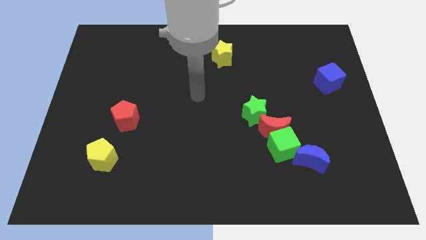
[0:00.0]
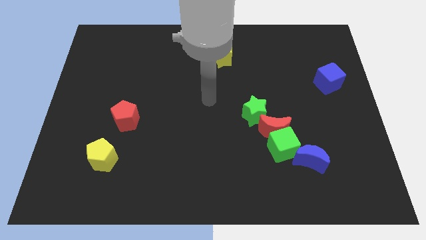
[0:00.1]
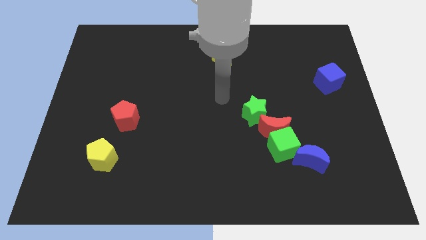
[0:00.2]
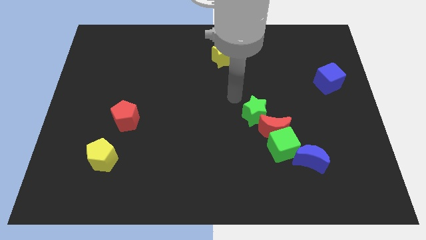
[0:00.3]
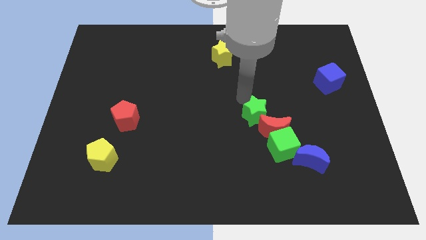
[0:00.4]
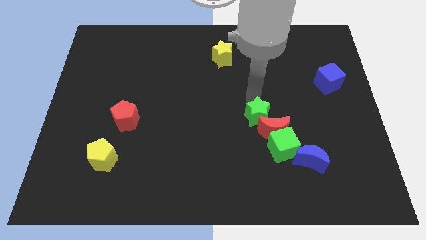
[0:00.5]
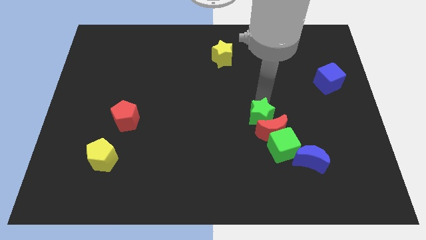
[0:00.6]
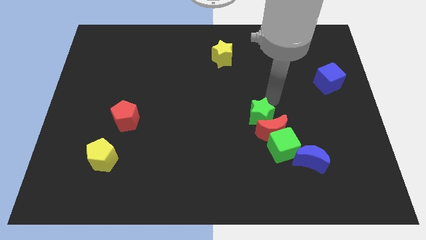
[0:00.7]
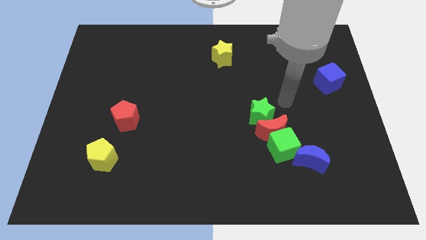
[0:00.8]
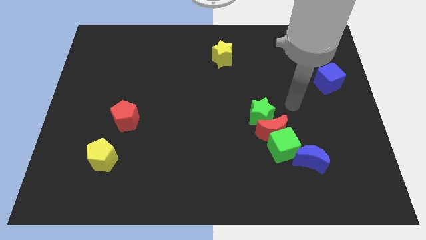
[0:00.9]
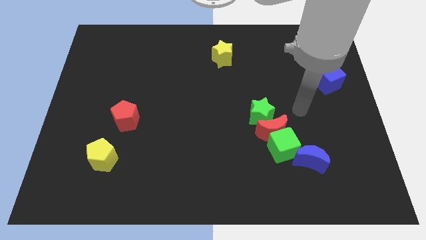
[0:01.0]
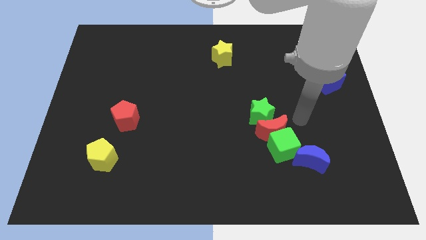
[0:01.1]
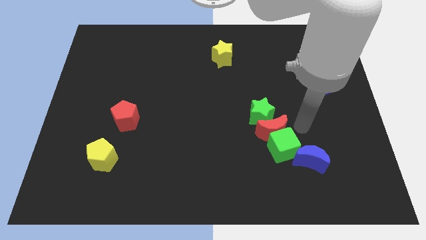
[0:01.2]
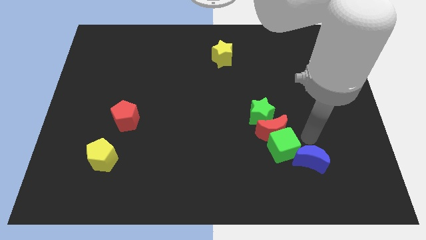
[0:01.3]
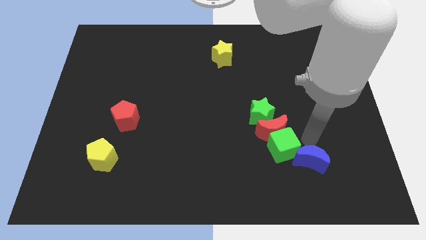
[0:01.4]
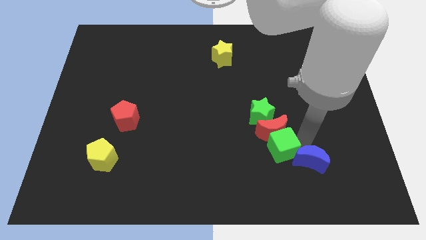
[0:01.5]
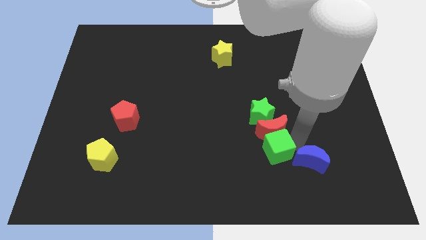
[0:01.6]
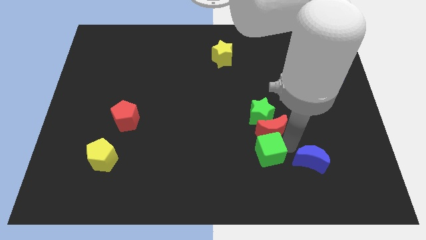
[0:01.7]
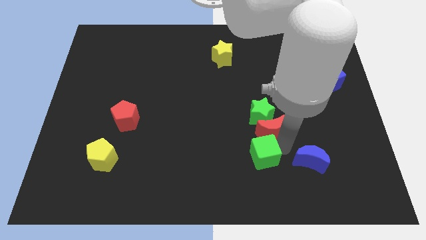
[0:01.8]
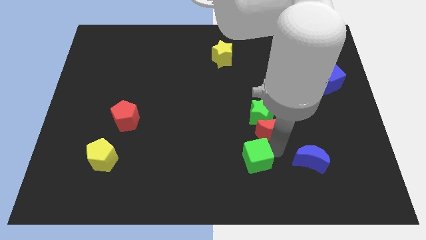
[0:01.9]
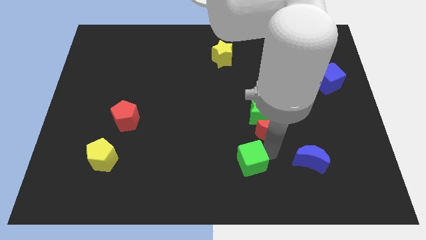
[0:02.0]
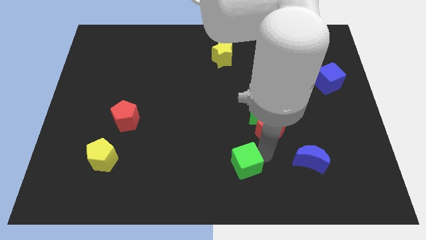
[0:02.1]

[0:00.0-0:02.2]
move the green cube away from the red moon and blue moon

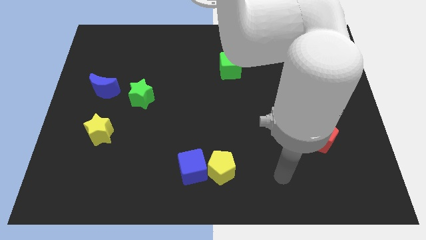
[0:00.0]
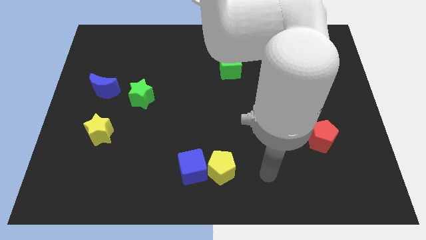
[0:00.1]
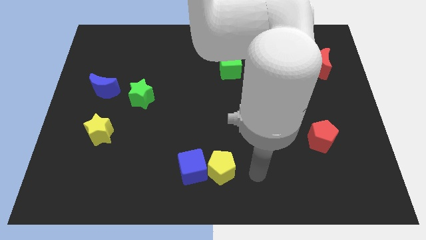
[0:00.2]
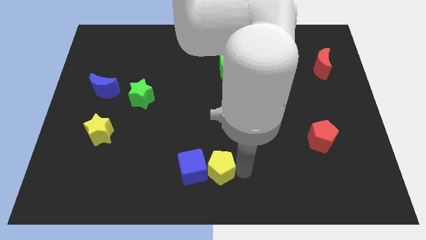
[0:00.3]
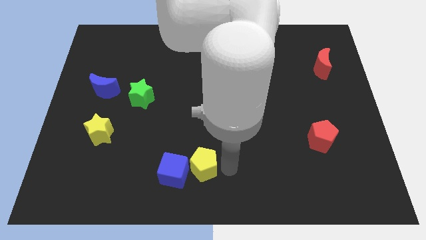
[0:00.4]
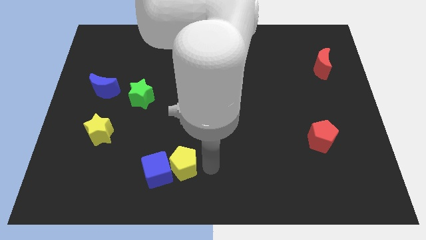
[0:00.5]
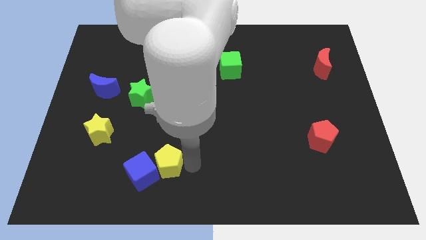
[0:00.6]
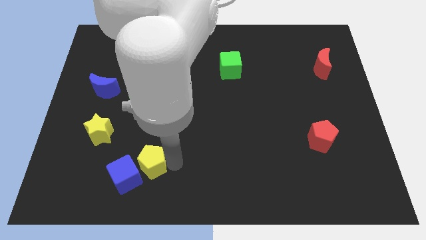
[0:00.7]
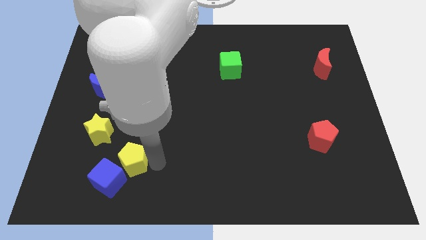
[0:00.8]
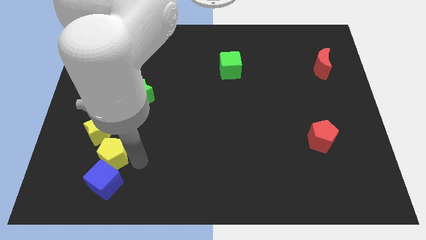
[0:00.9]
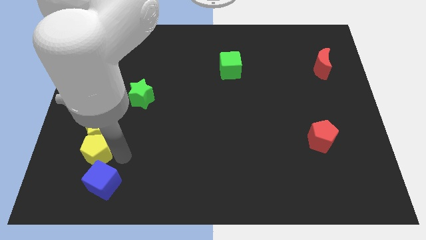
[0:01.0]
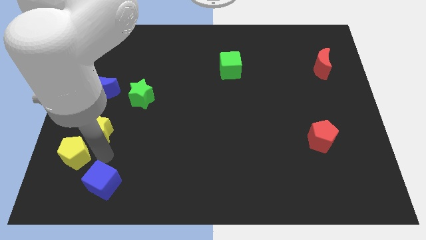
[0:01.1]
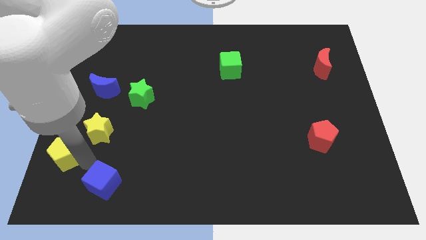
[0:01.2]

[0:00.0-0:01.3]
move the blue cube away from the yellow pentagon

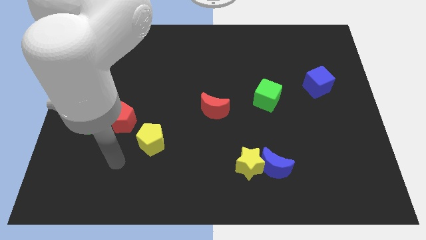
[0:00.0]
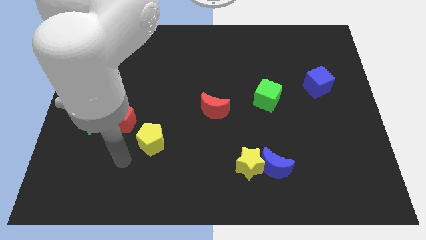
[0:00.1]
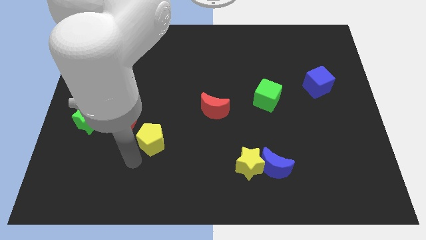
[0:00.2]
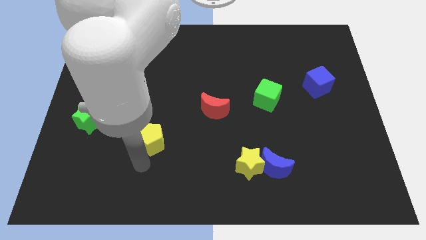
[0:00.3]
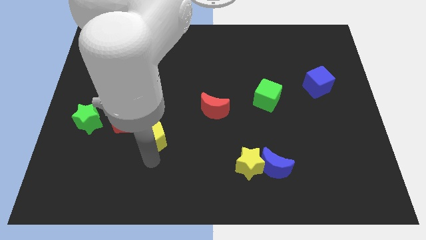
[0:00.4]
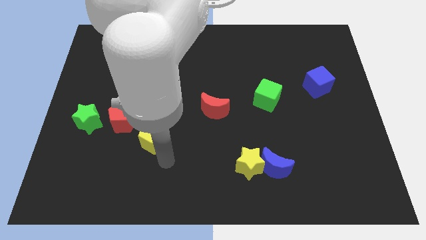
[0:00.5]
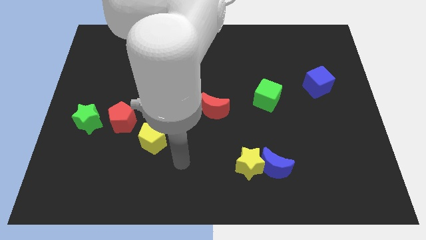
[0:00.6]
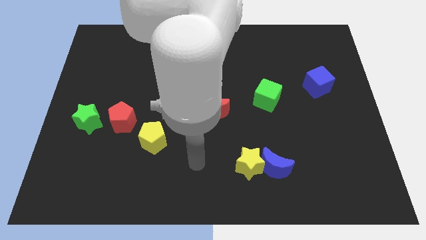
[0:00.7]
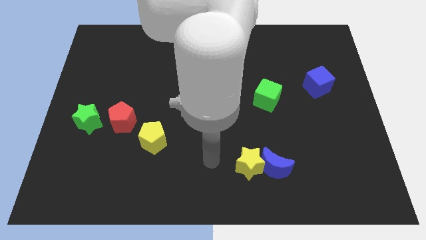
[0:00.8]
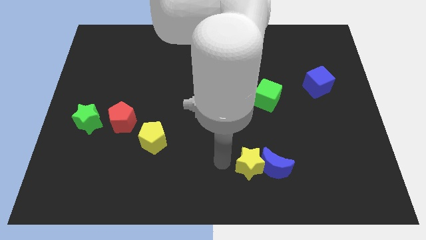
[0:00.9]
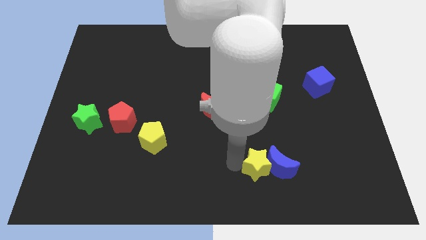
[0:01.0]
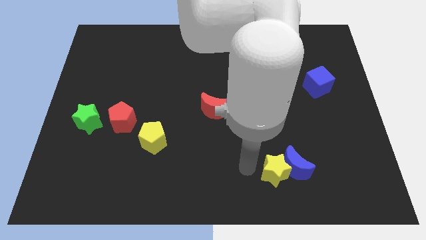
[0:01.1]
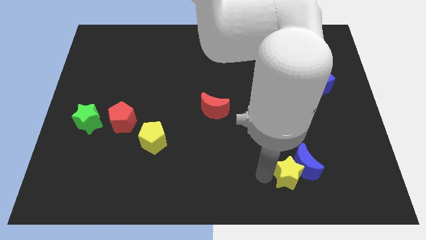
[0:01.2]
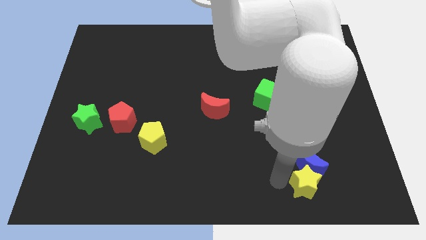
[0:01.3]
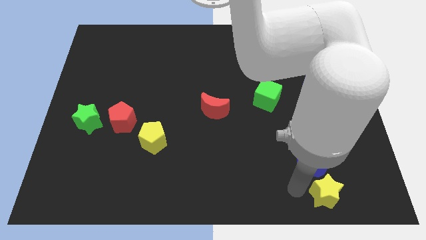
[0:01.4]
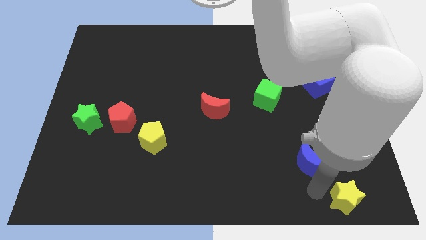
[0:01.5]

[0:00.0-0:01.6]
pull the blue moon apart from the yellow star

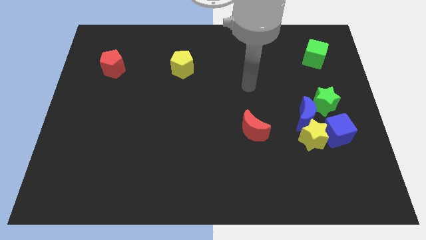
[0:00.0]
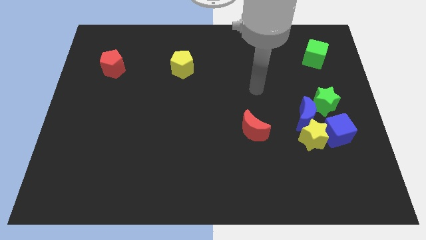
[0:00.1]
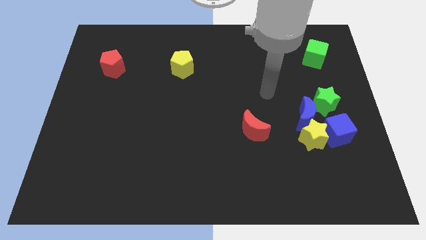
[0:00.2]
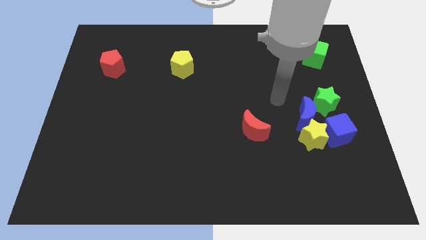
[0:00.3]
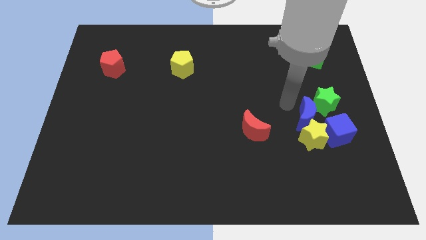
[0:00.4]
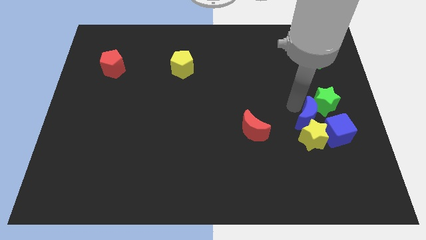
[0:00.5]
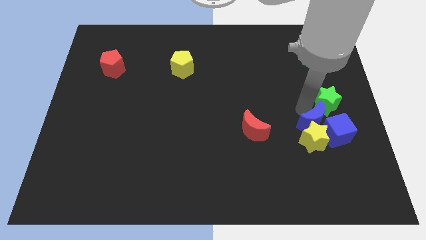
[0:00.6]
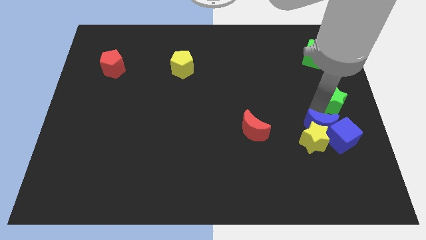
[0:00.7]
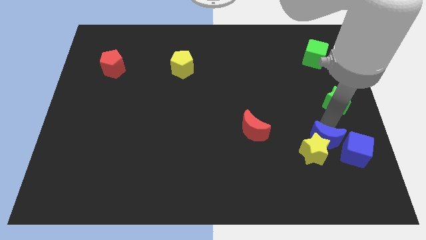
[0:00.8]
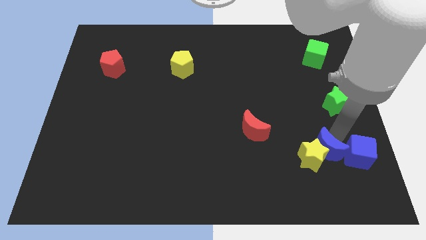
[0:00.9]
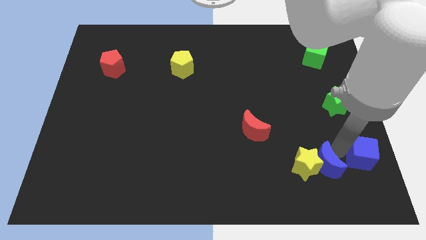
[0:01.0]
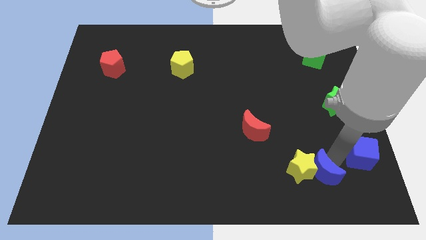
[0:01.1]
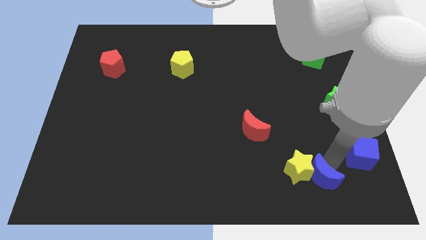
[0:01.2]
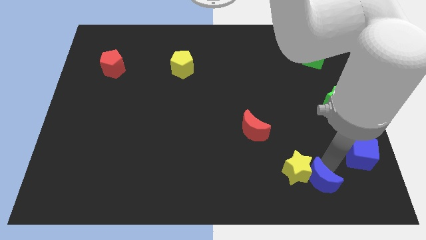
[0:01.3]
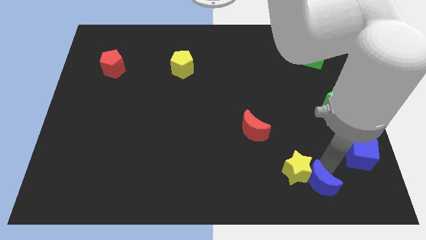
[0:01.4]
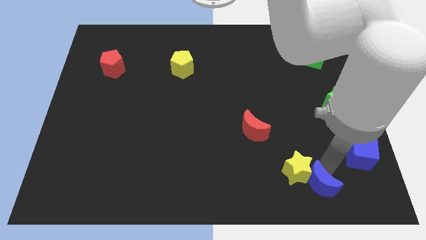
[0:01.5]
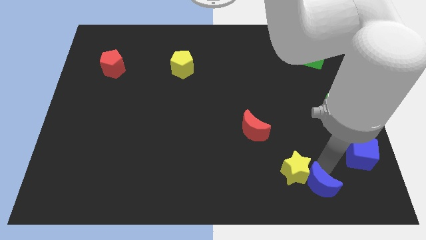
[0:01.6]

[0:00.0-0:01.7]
move the yellow star away from the blue moon and blue cube

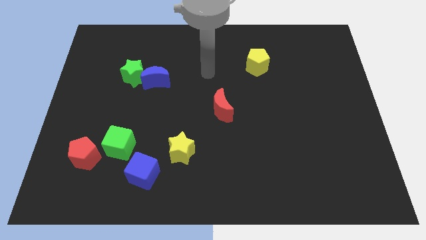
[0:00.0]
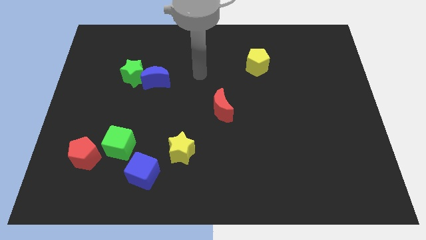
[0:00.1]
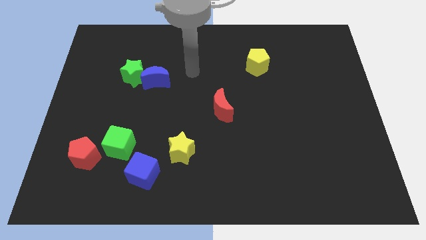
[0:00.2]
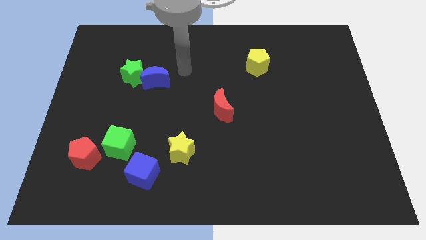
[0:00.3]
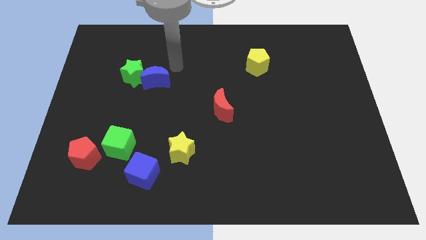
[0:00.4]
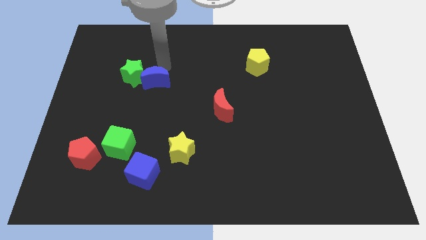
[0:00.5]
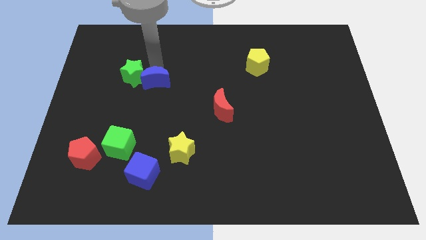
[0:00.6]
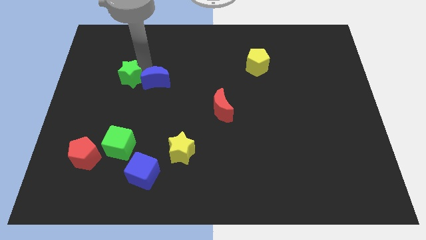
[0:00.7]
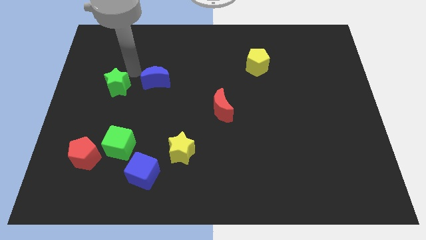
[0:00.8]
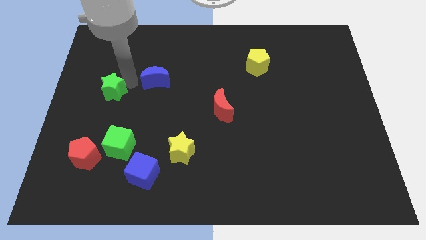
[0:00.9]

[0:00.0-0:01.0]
move the blue moon away from the green star

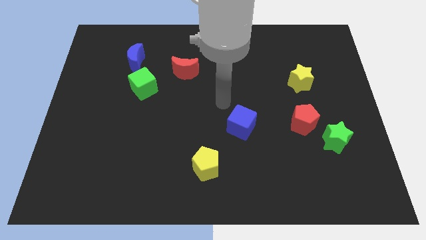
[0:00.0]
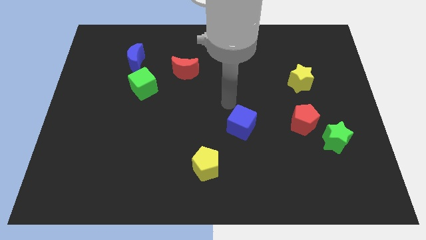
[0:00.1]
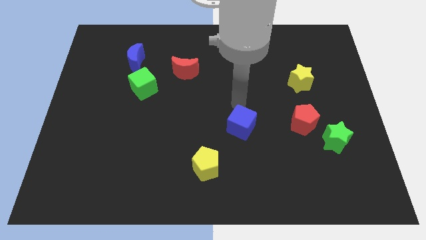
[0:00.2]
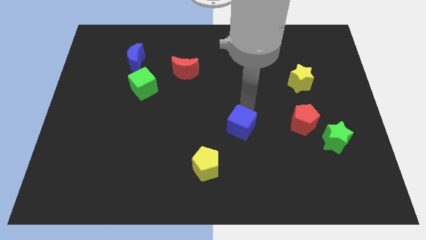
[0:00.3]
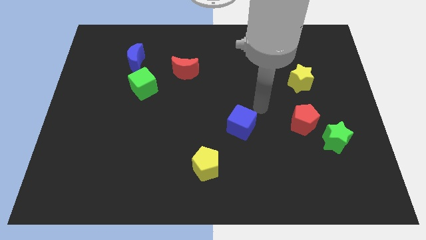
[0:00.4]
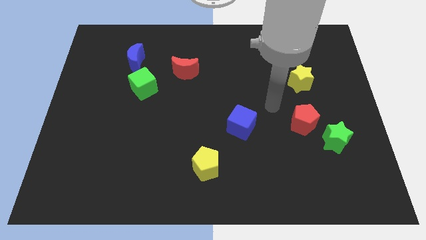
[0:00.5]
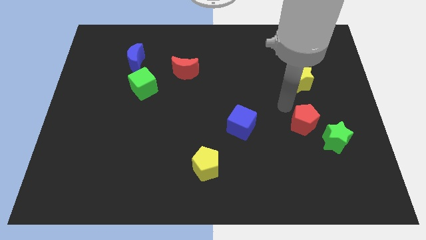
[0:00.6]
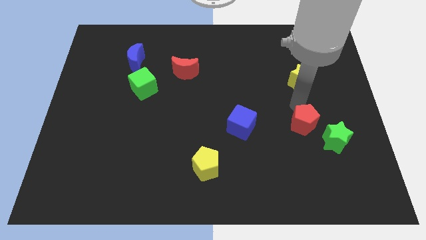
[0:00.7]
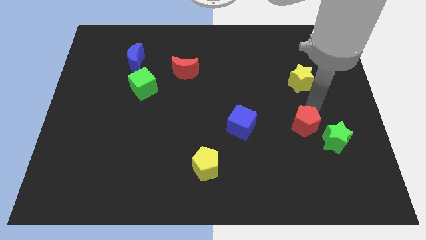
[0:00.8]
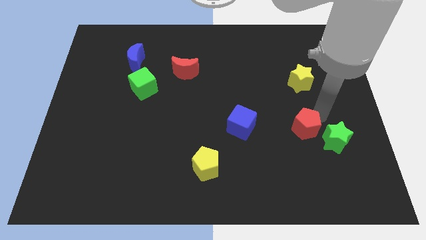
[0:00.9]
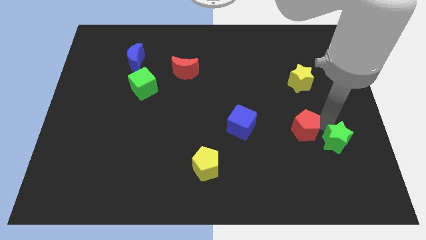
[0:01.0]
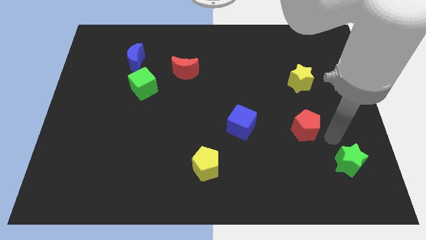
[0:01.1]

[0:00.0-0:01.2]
move the red pentagon away from the green star

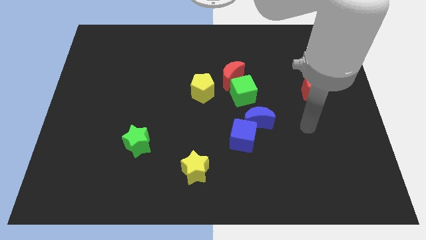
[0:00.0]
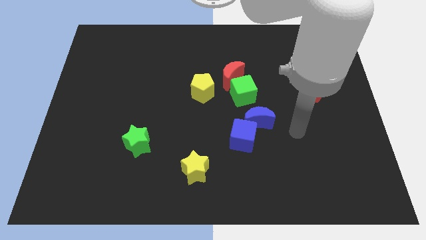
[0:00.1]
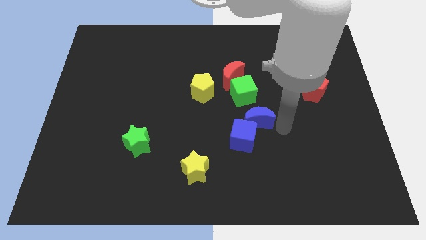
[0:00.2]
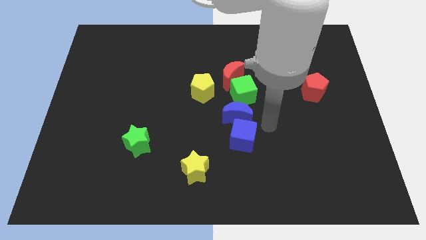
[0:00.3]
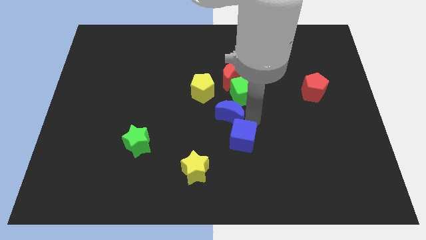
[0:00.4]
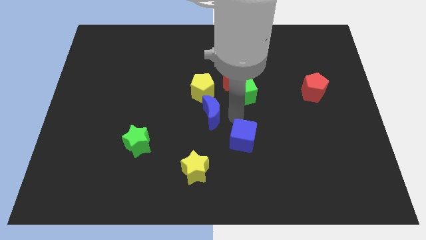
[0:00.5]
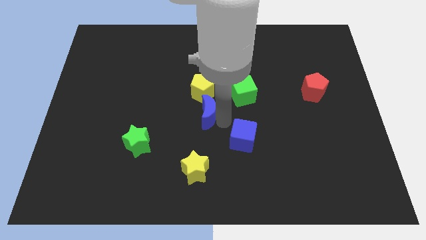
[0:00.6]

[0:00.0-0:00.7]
separate the blue cube from the blue moon
